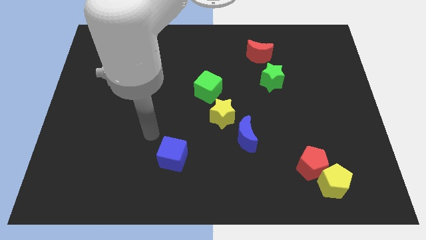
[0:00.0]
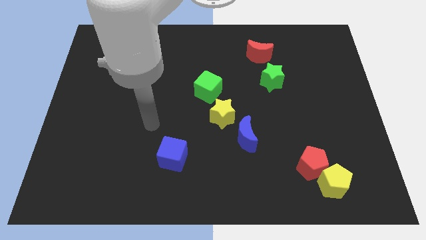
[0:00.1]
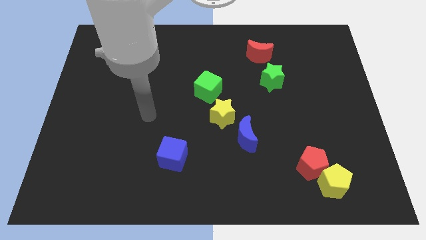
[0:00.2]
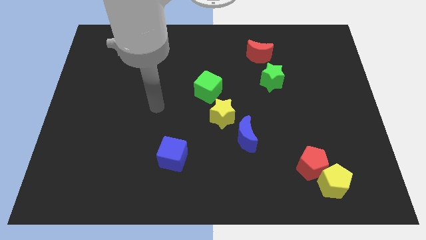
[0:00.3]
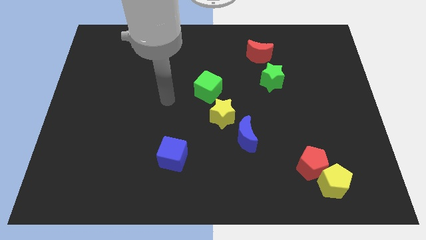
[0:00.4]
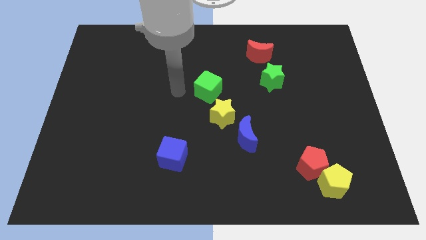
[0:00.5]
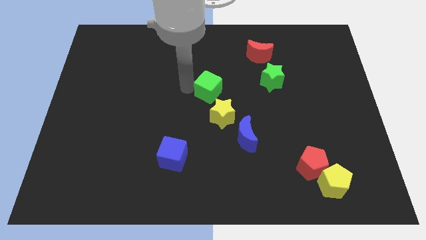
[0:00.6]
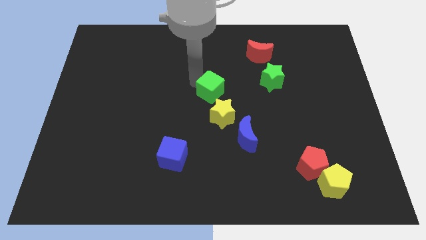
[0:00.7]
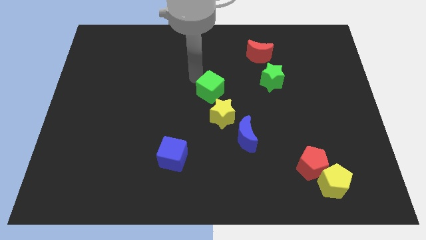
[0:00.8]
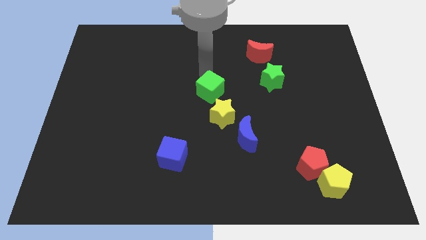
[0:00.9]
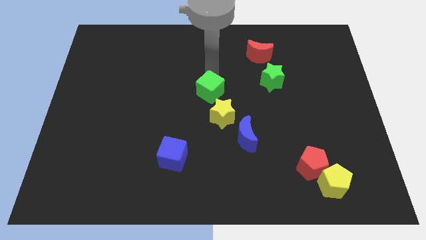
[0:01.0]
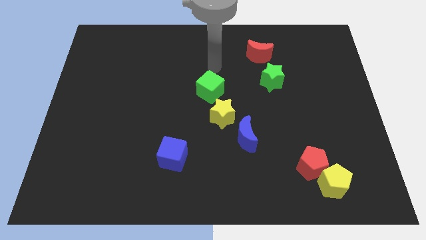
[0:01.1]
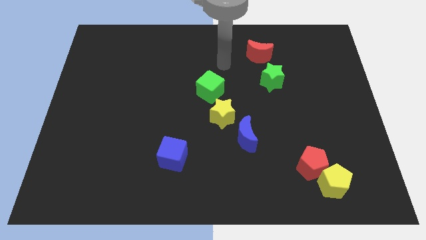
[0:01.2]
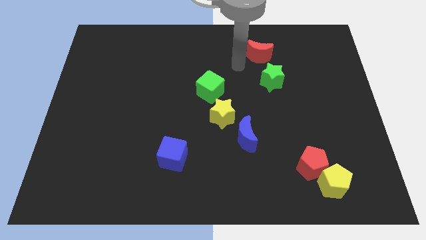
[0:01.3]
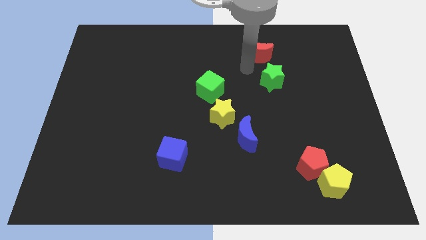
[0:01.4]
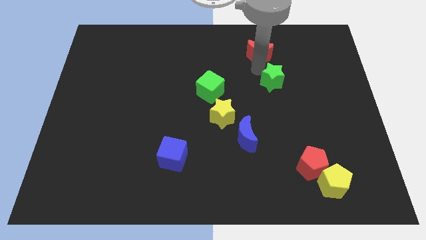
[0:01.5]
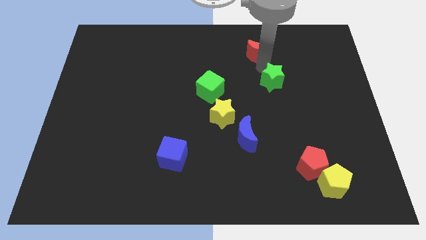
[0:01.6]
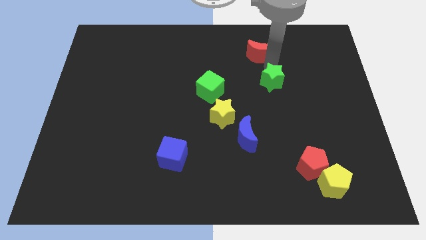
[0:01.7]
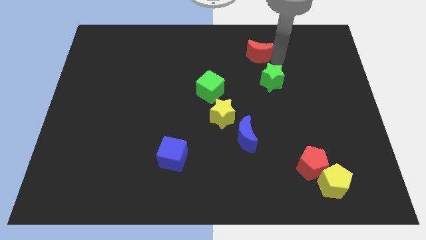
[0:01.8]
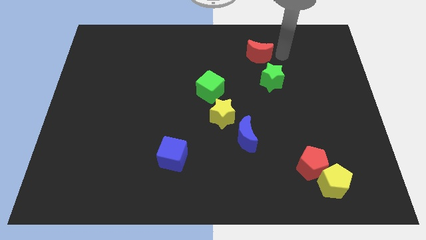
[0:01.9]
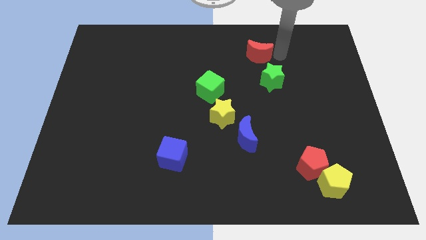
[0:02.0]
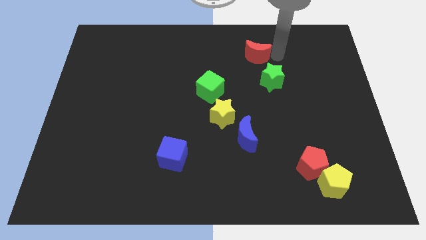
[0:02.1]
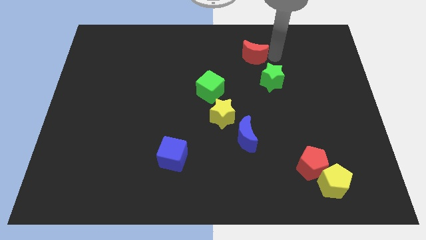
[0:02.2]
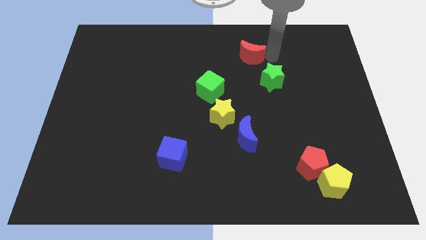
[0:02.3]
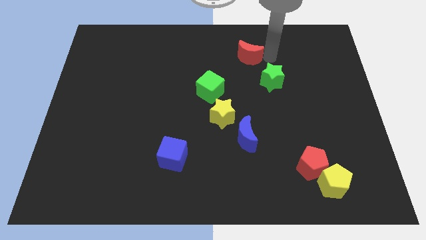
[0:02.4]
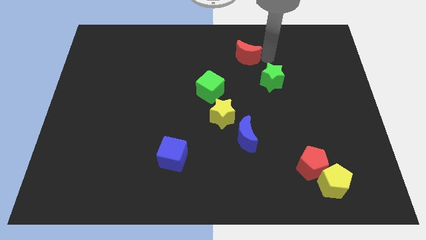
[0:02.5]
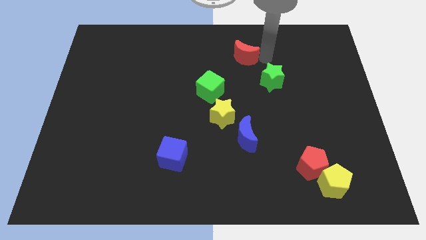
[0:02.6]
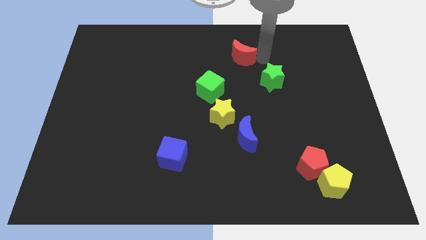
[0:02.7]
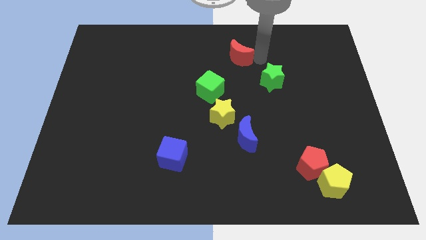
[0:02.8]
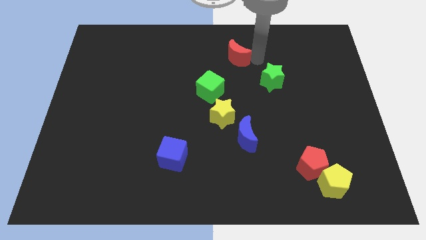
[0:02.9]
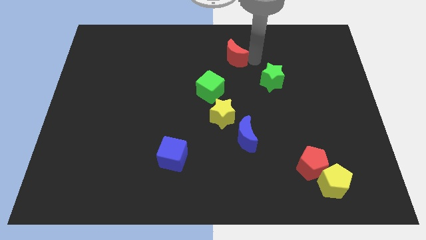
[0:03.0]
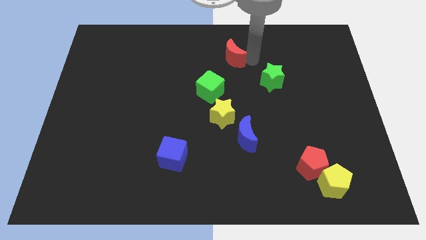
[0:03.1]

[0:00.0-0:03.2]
move the red moon to the left a little bit

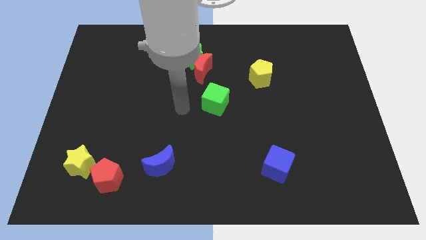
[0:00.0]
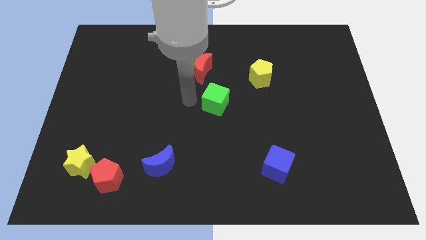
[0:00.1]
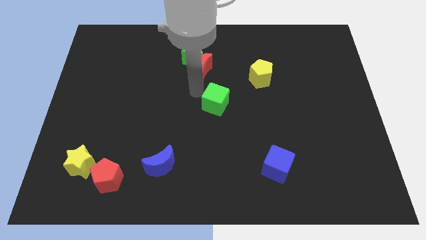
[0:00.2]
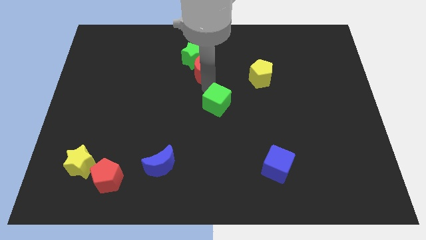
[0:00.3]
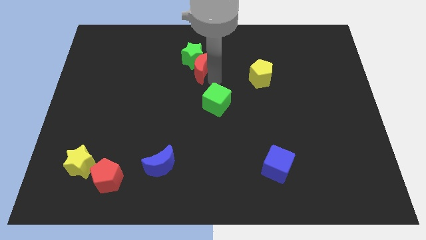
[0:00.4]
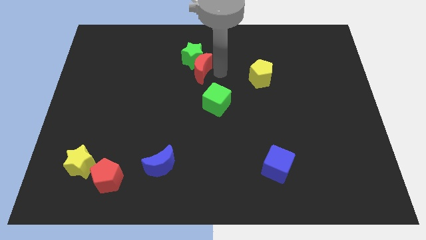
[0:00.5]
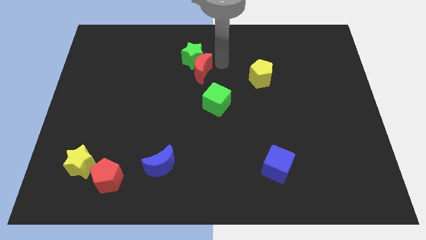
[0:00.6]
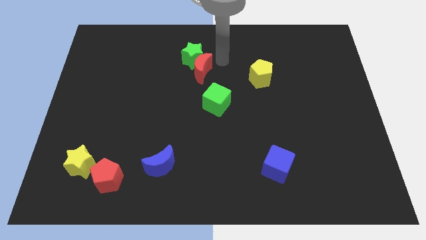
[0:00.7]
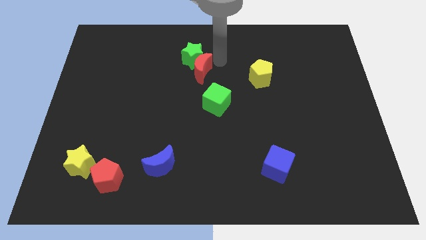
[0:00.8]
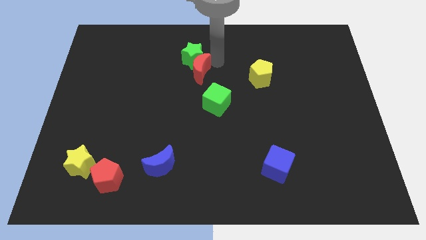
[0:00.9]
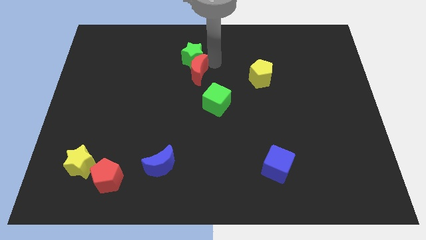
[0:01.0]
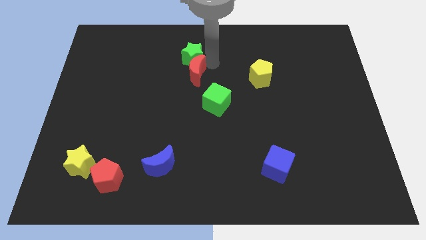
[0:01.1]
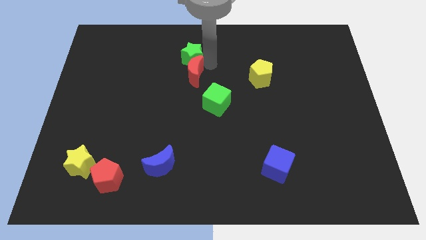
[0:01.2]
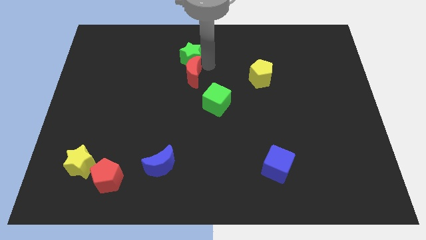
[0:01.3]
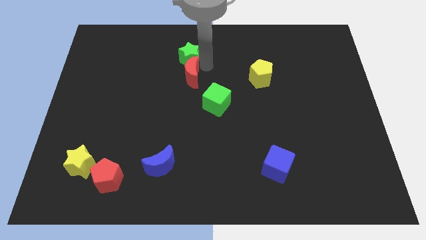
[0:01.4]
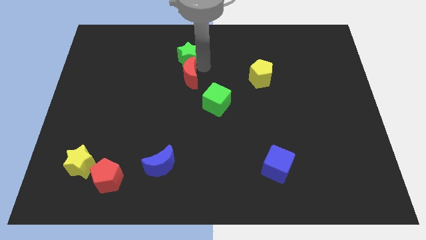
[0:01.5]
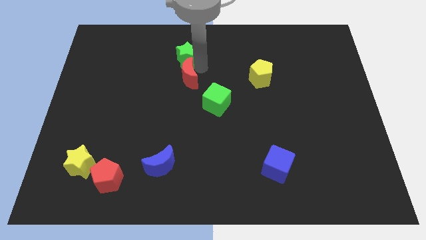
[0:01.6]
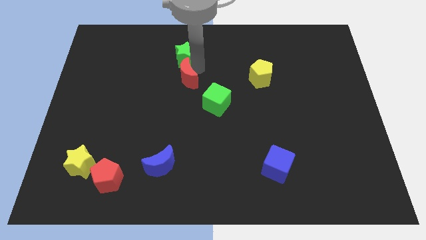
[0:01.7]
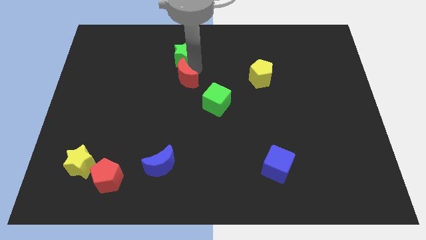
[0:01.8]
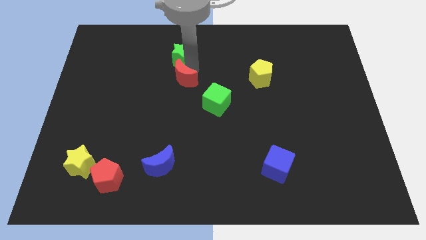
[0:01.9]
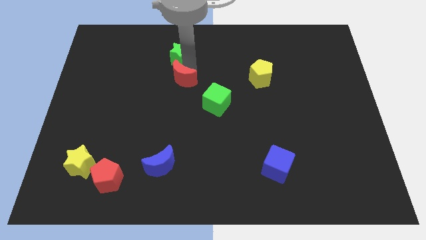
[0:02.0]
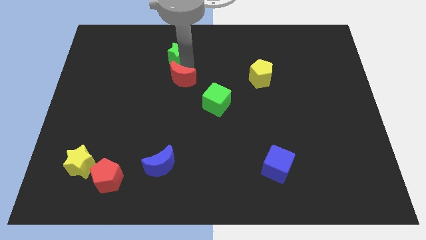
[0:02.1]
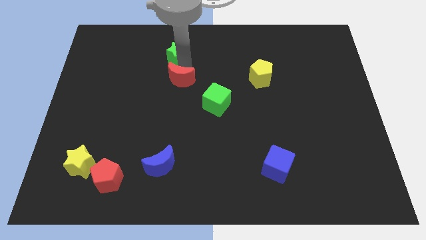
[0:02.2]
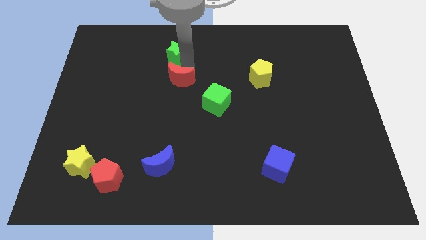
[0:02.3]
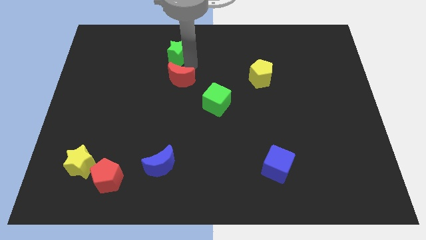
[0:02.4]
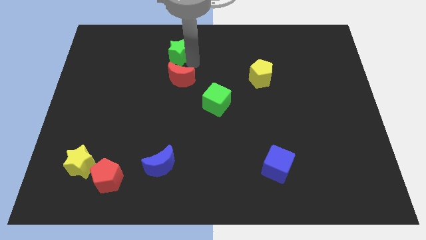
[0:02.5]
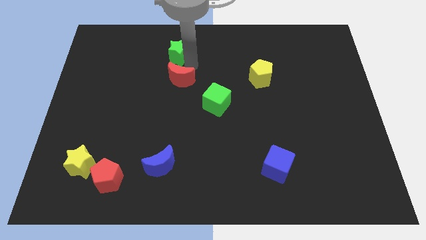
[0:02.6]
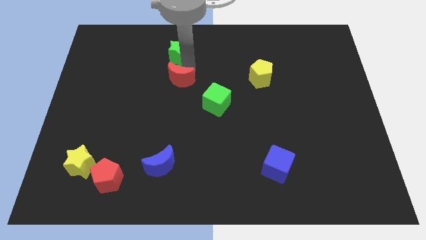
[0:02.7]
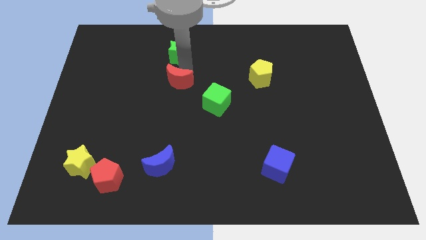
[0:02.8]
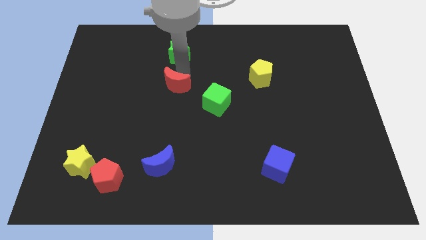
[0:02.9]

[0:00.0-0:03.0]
push the red moon diagonally down and left somewhat

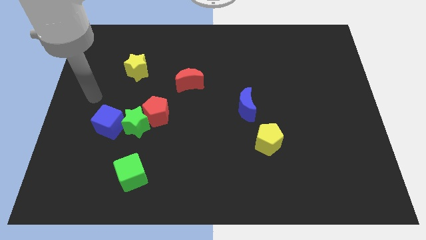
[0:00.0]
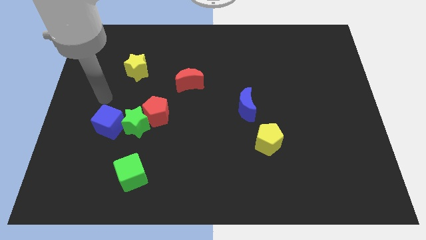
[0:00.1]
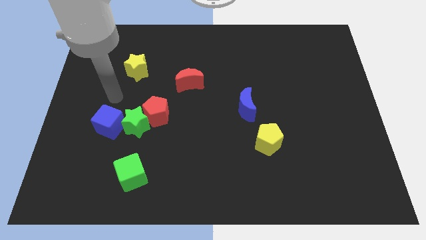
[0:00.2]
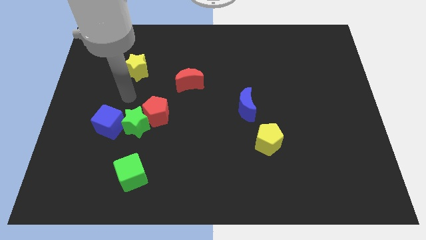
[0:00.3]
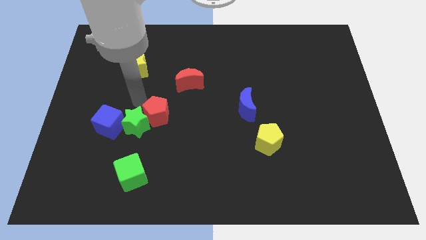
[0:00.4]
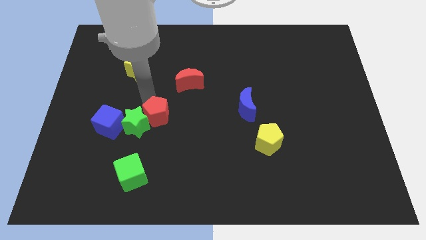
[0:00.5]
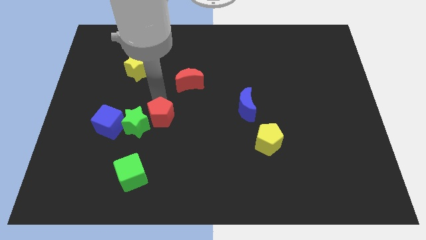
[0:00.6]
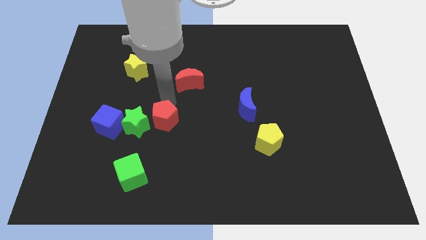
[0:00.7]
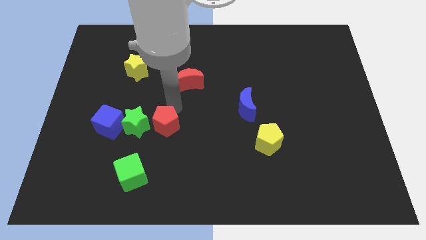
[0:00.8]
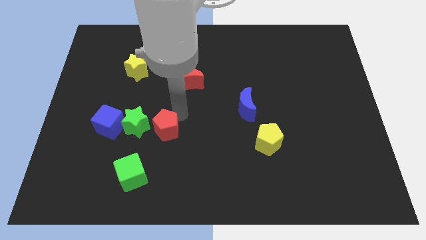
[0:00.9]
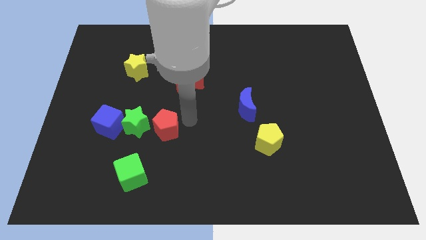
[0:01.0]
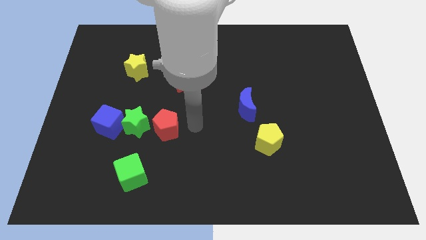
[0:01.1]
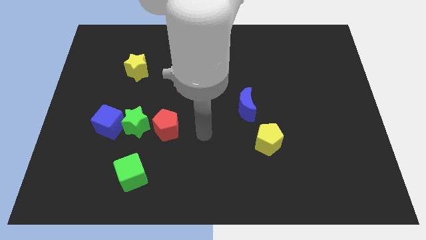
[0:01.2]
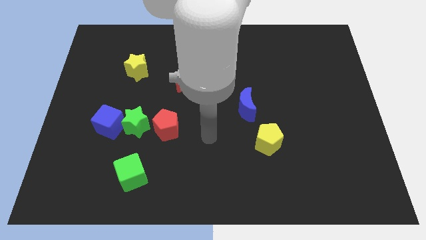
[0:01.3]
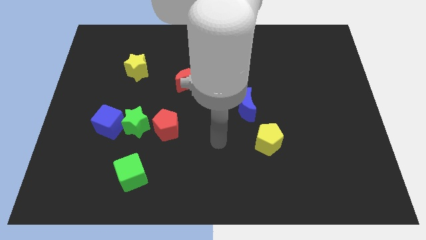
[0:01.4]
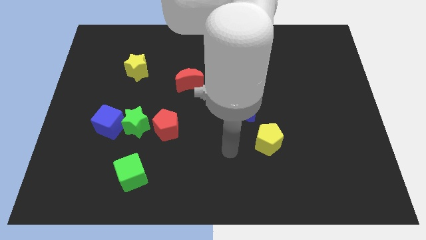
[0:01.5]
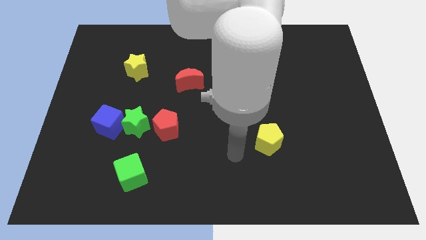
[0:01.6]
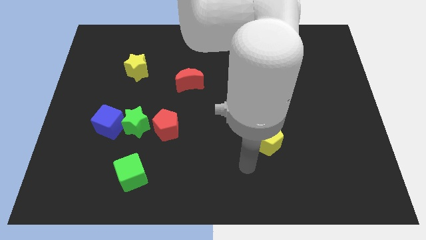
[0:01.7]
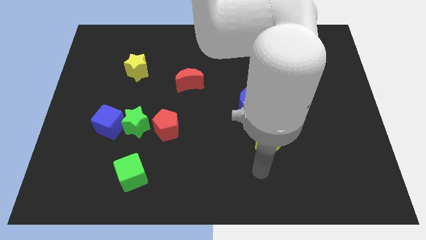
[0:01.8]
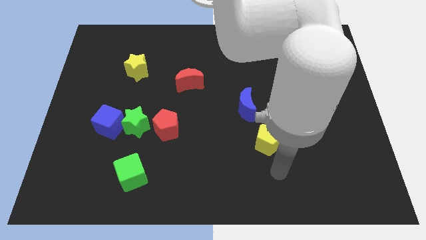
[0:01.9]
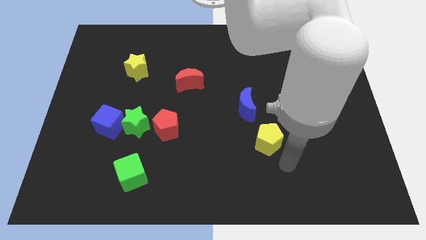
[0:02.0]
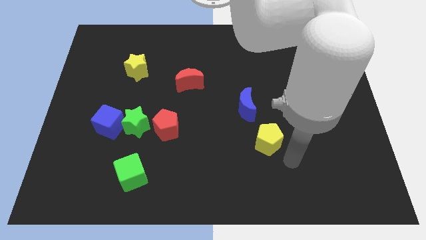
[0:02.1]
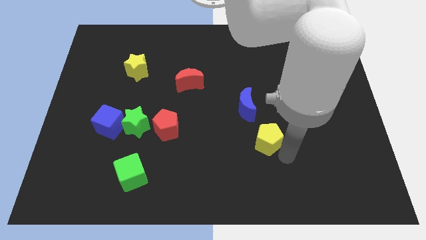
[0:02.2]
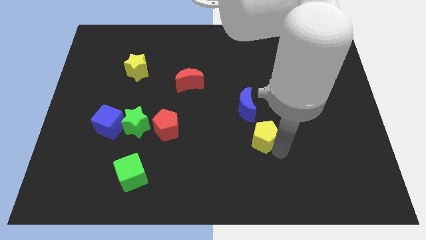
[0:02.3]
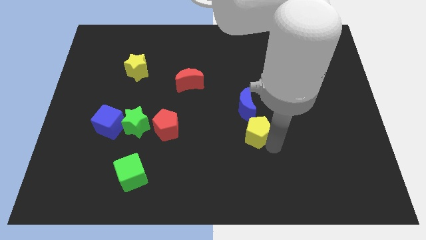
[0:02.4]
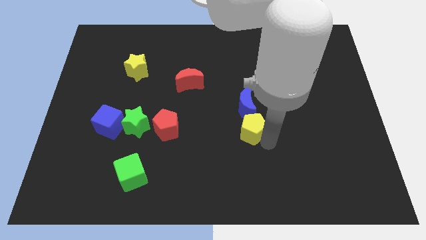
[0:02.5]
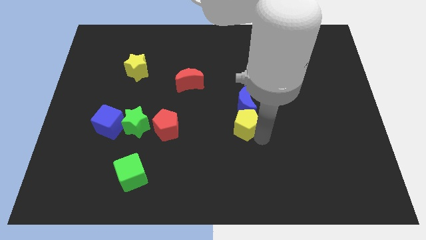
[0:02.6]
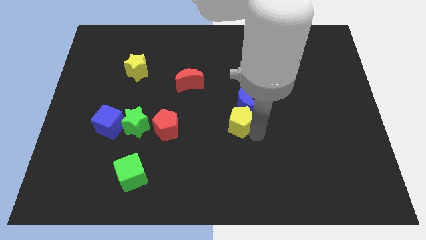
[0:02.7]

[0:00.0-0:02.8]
slightly push the yellow pentagon diagonally up and to the left
